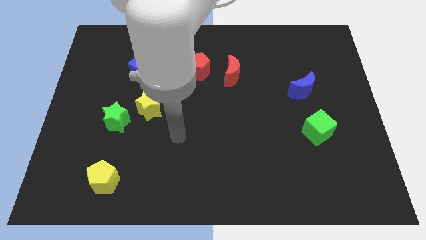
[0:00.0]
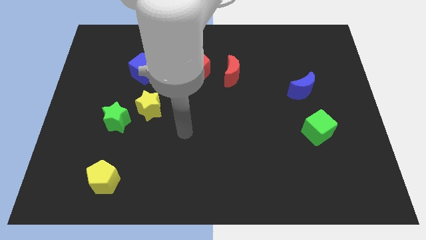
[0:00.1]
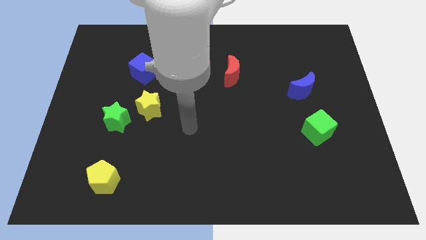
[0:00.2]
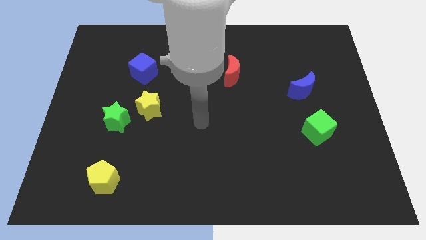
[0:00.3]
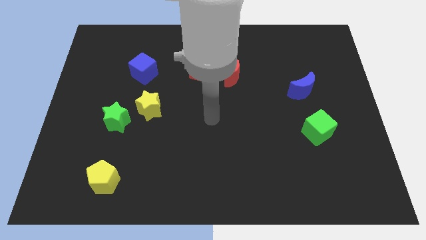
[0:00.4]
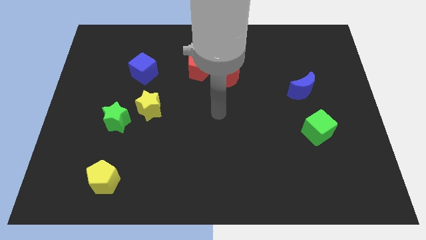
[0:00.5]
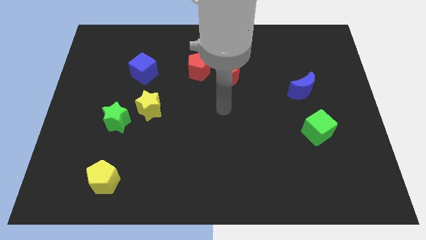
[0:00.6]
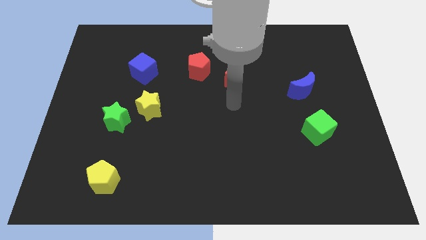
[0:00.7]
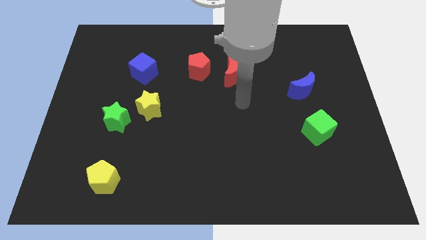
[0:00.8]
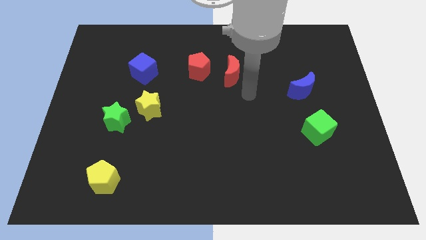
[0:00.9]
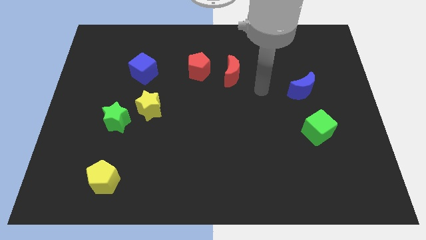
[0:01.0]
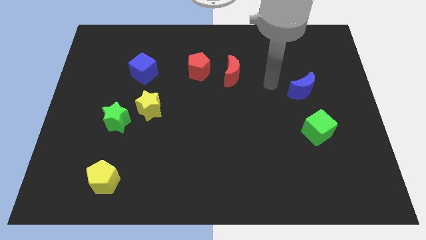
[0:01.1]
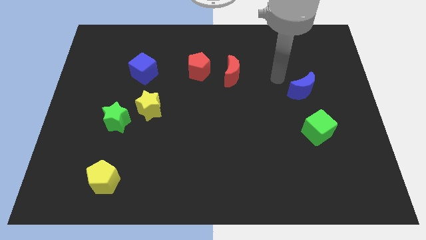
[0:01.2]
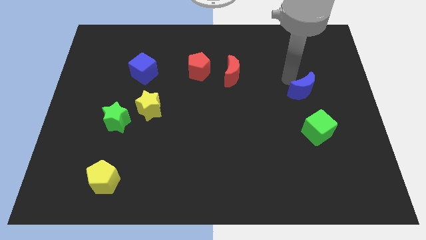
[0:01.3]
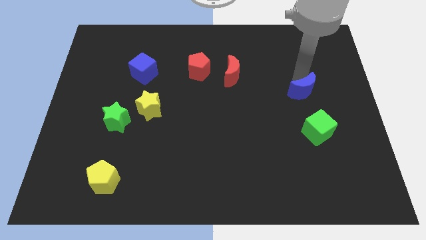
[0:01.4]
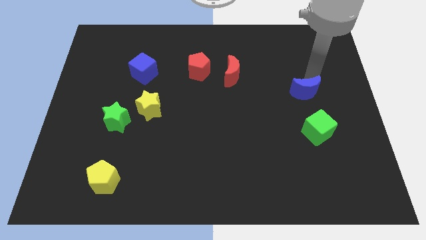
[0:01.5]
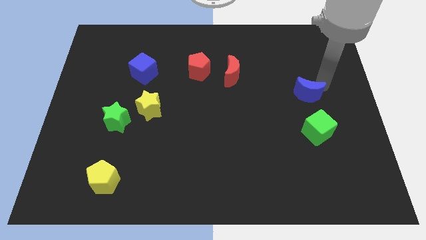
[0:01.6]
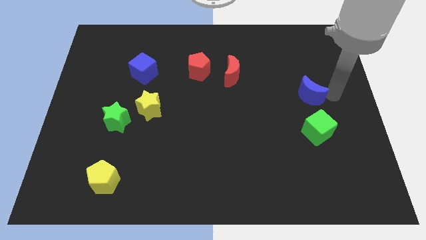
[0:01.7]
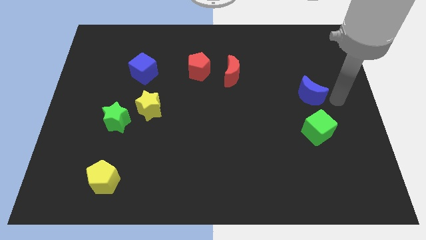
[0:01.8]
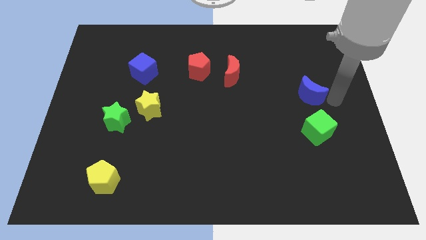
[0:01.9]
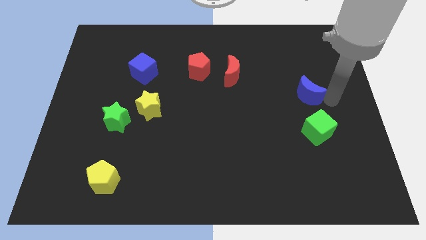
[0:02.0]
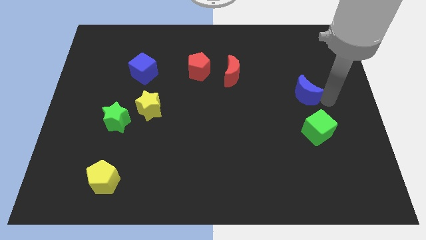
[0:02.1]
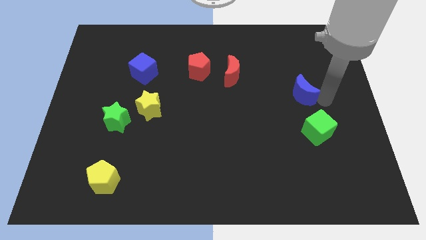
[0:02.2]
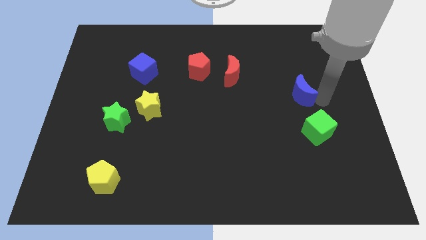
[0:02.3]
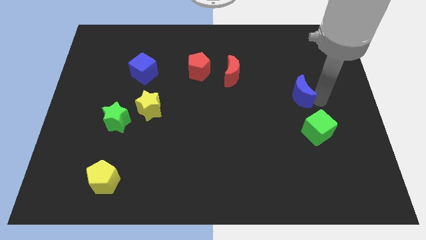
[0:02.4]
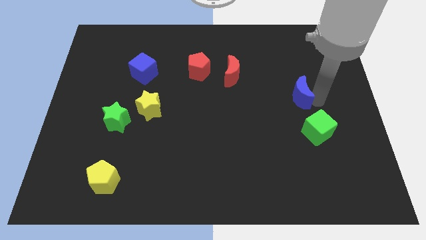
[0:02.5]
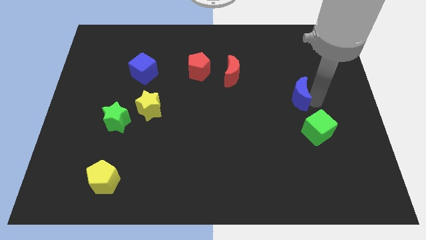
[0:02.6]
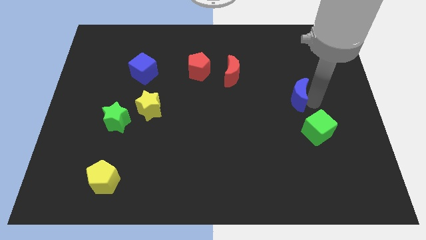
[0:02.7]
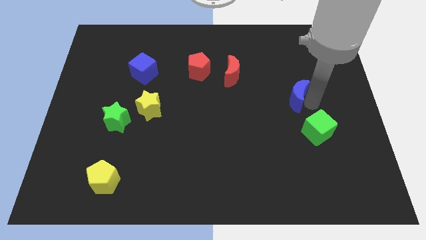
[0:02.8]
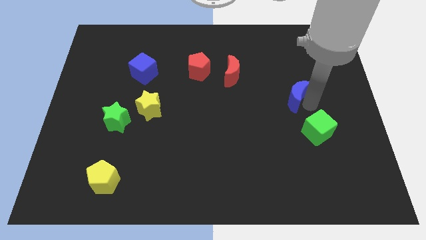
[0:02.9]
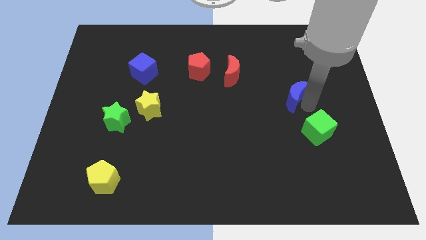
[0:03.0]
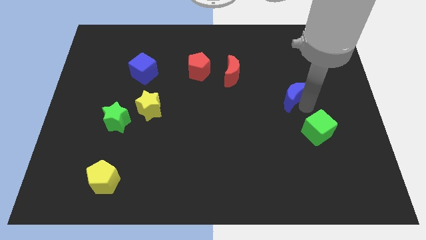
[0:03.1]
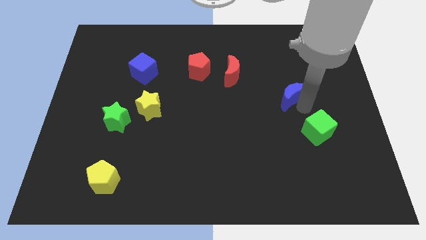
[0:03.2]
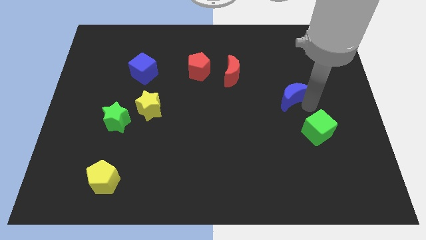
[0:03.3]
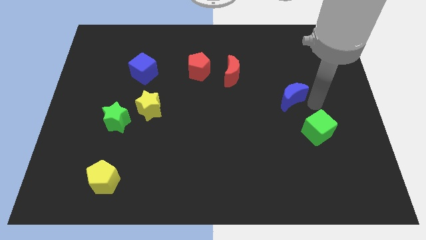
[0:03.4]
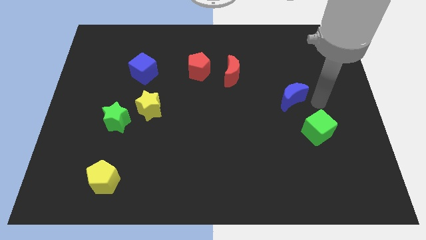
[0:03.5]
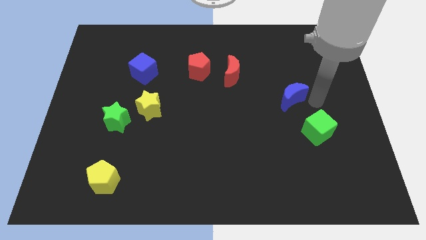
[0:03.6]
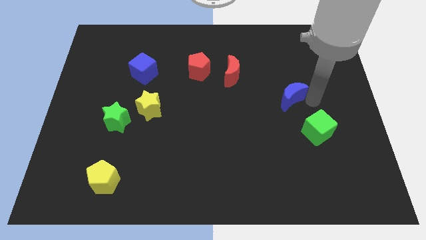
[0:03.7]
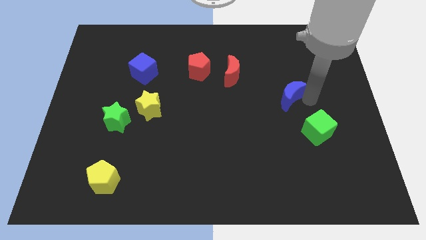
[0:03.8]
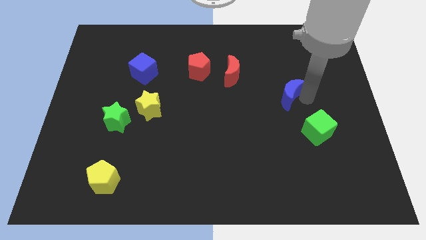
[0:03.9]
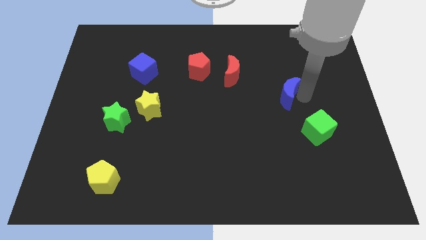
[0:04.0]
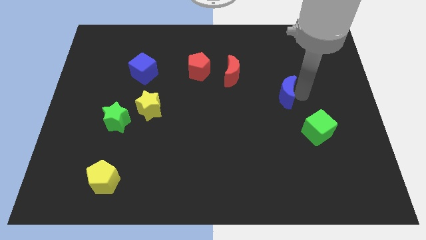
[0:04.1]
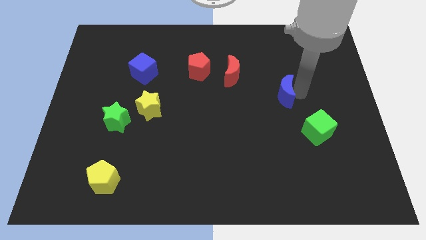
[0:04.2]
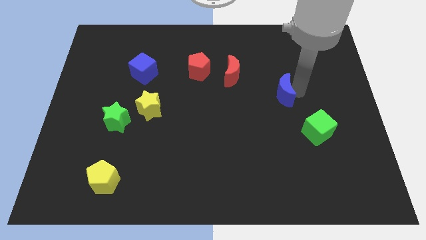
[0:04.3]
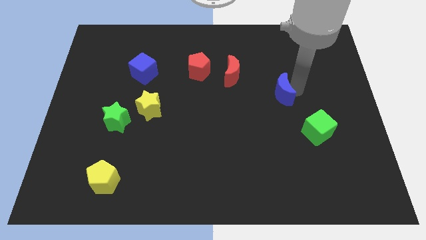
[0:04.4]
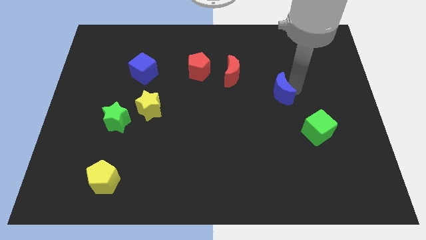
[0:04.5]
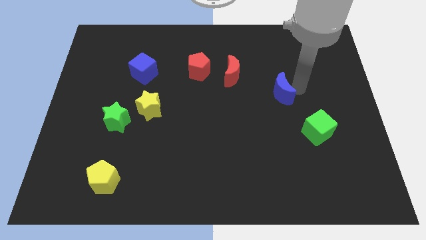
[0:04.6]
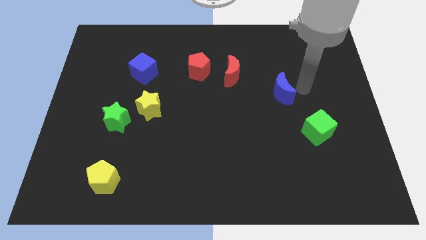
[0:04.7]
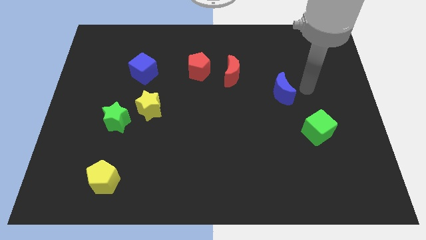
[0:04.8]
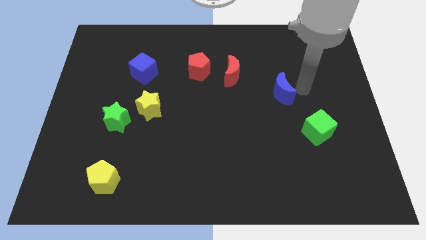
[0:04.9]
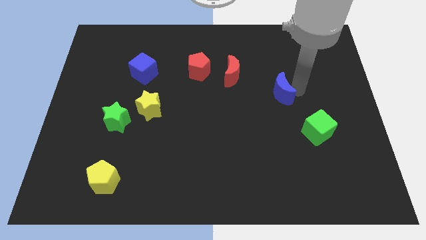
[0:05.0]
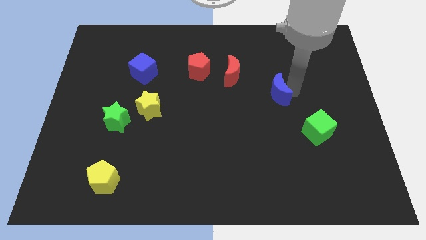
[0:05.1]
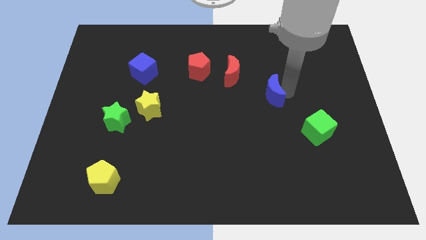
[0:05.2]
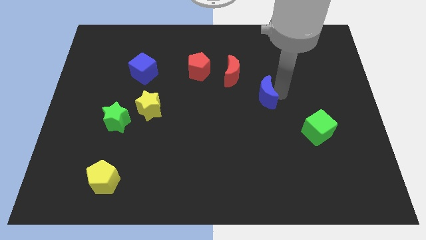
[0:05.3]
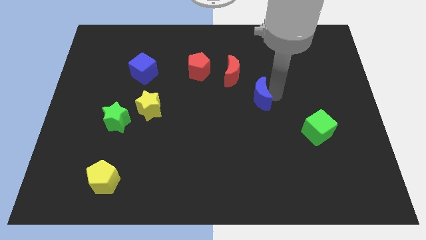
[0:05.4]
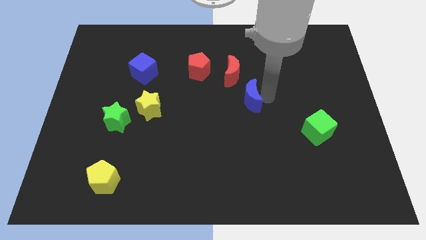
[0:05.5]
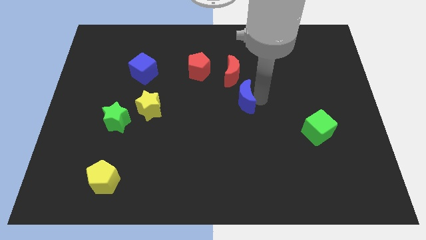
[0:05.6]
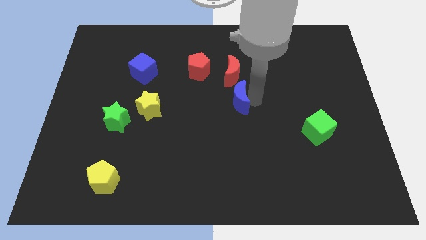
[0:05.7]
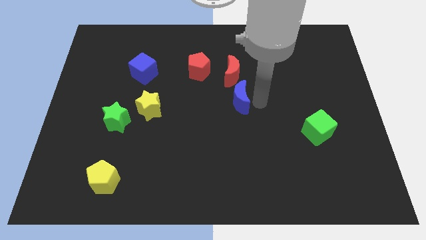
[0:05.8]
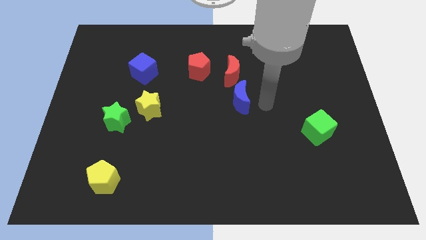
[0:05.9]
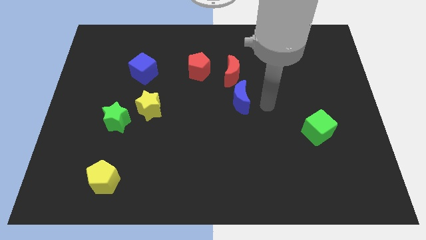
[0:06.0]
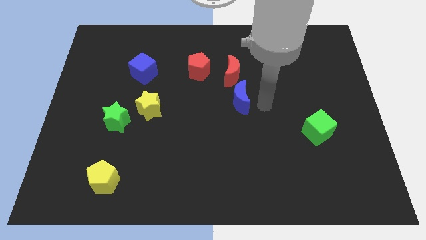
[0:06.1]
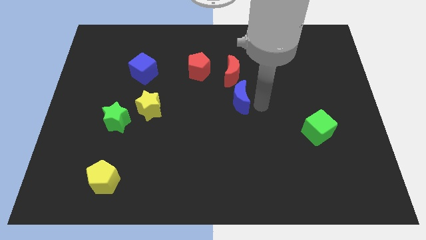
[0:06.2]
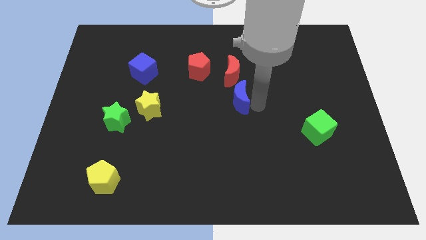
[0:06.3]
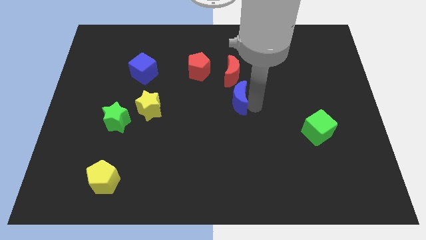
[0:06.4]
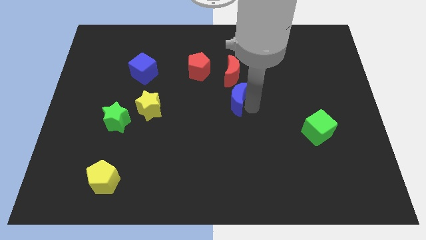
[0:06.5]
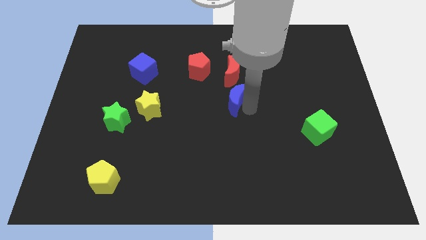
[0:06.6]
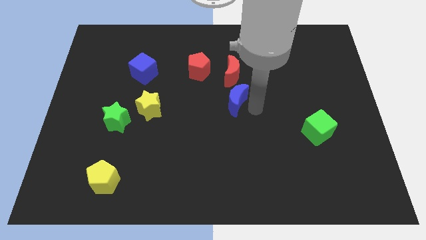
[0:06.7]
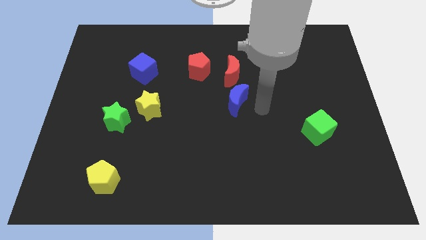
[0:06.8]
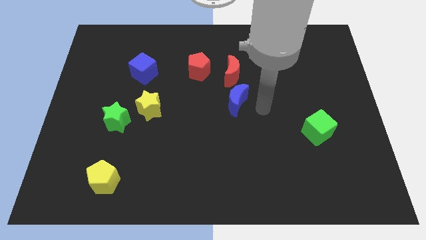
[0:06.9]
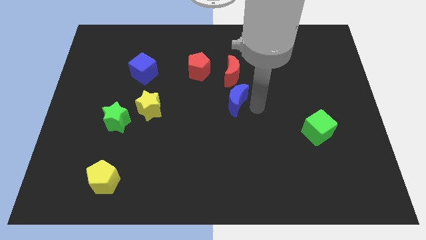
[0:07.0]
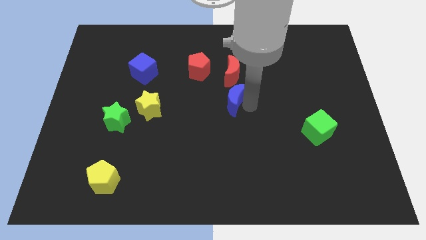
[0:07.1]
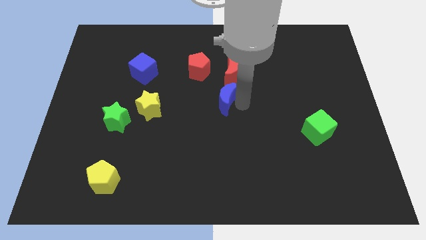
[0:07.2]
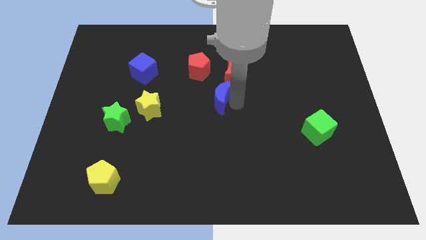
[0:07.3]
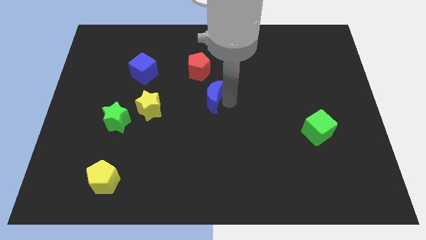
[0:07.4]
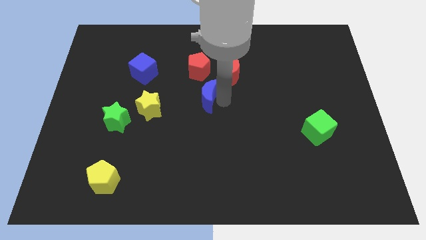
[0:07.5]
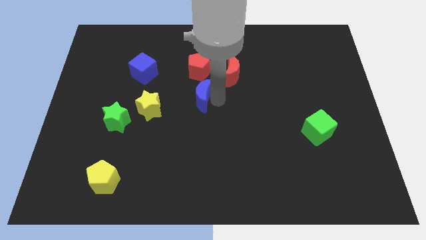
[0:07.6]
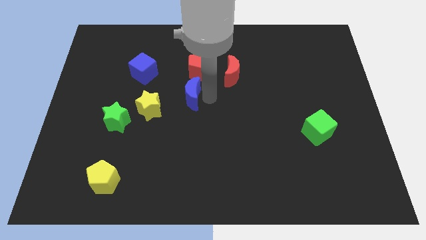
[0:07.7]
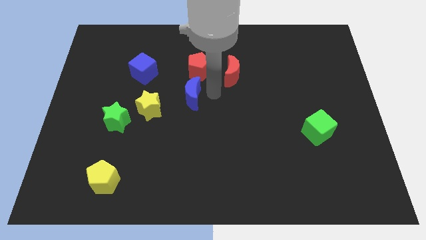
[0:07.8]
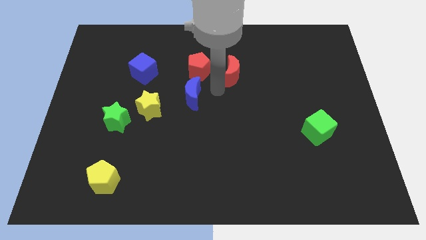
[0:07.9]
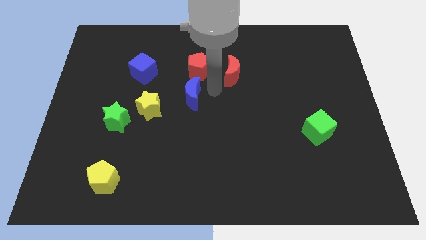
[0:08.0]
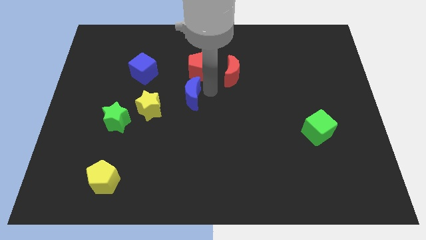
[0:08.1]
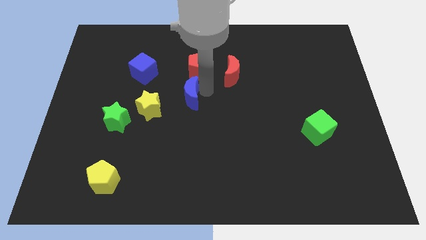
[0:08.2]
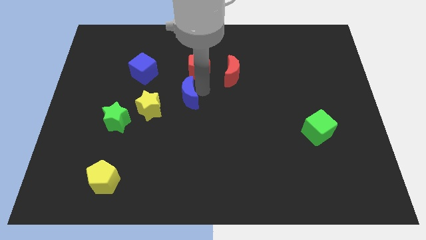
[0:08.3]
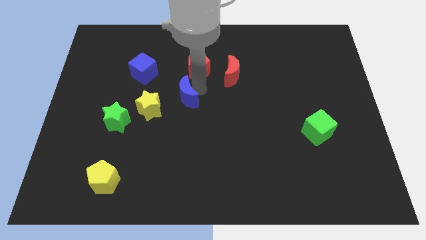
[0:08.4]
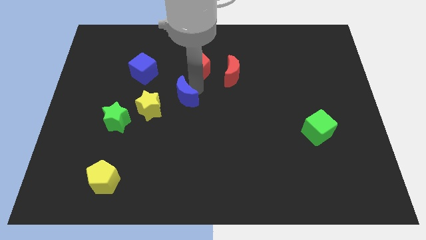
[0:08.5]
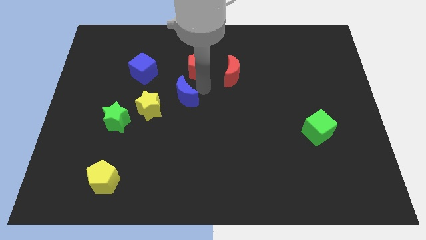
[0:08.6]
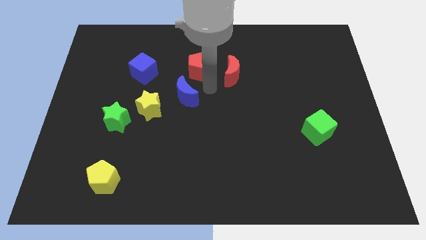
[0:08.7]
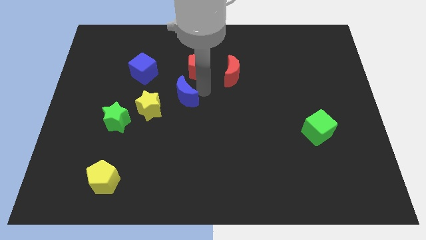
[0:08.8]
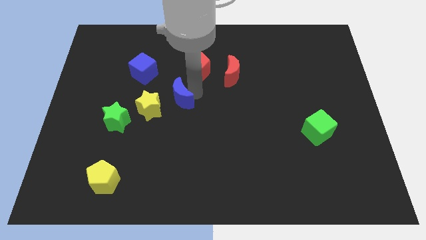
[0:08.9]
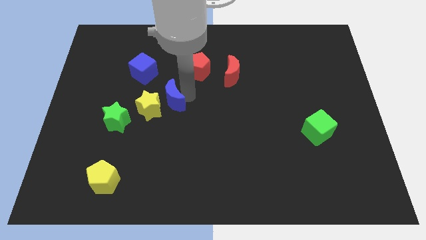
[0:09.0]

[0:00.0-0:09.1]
put the blue moon towards the yellow star
